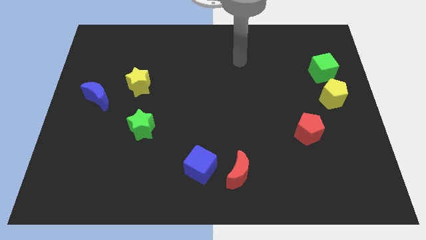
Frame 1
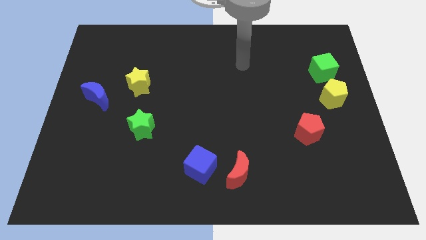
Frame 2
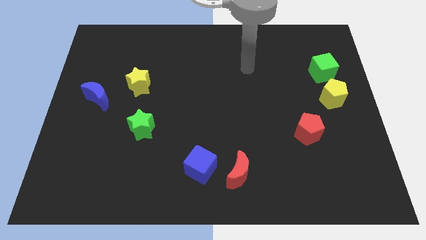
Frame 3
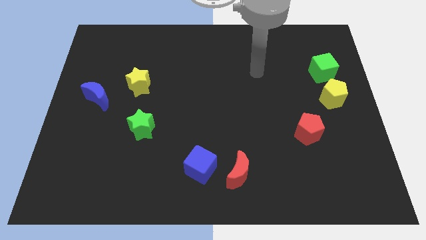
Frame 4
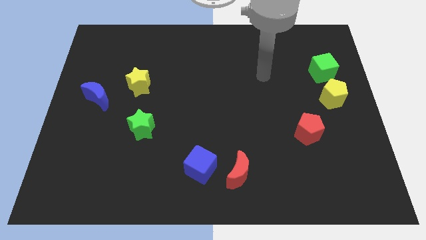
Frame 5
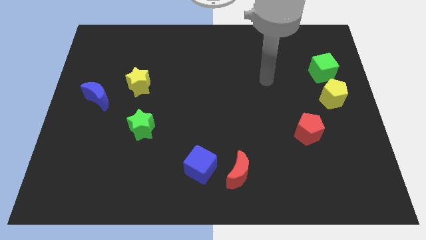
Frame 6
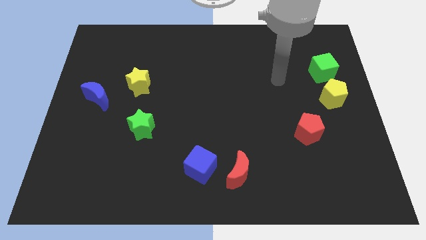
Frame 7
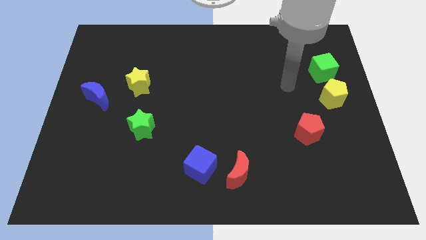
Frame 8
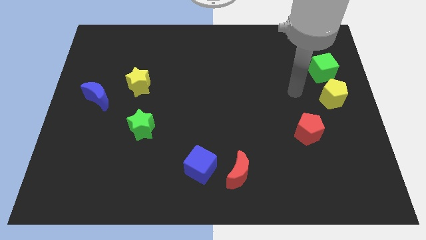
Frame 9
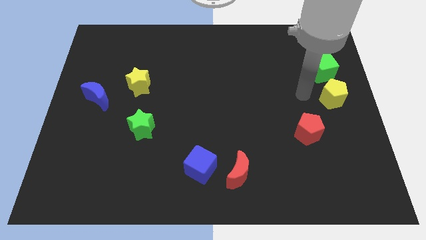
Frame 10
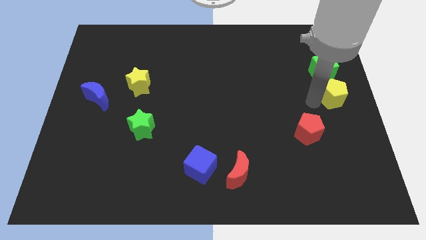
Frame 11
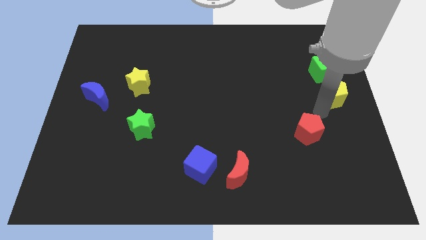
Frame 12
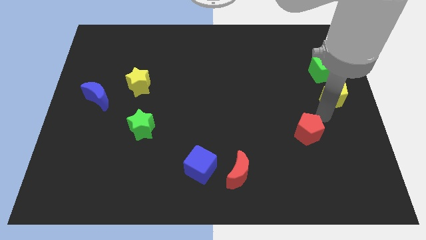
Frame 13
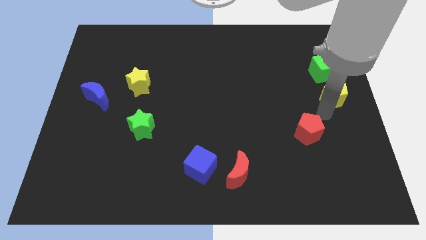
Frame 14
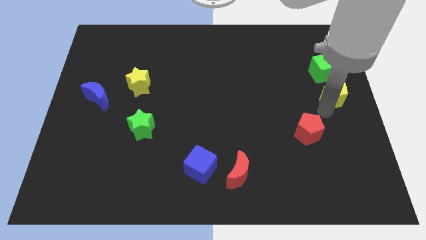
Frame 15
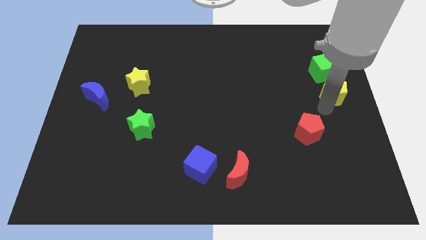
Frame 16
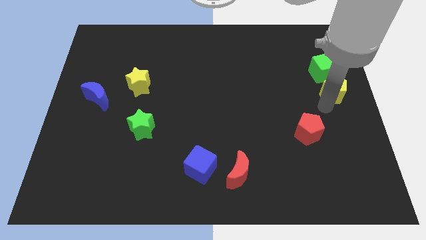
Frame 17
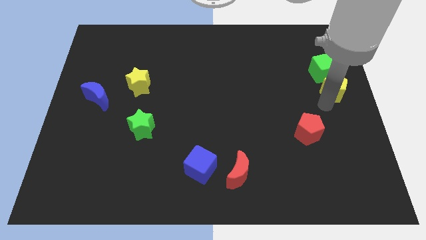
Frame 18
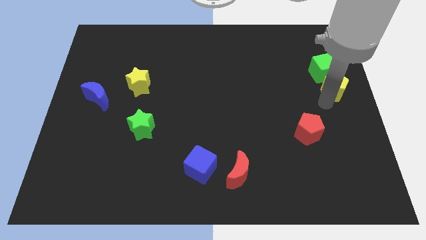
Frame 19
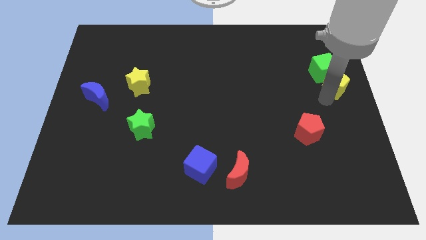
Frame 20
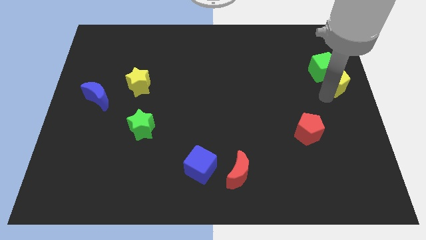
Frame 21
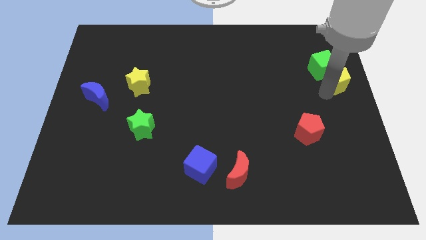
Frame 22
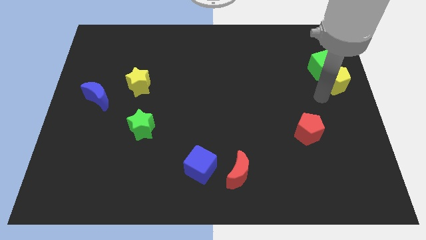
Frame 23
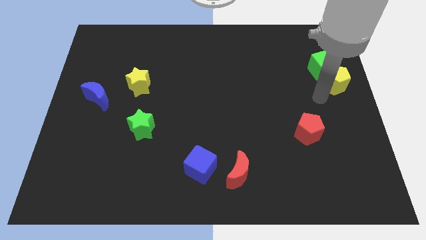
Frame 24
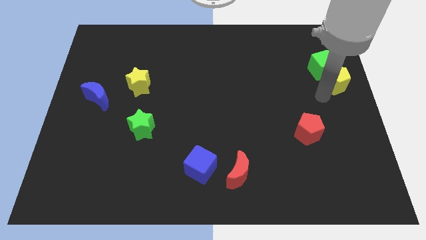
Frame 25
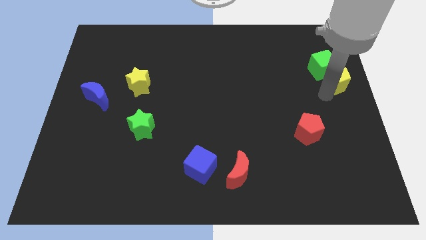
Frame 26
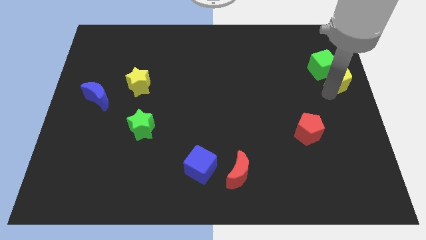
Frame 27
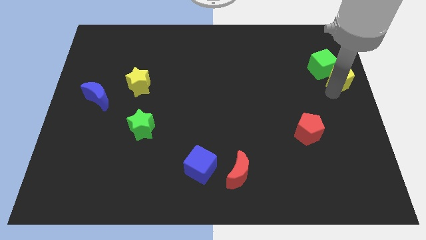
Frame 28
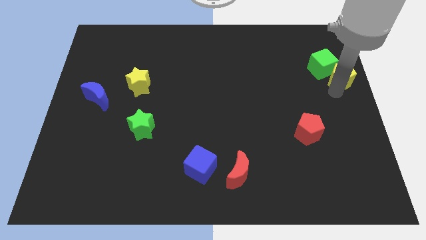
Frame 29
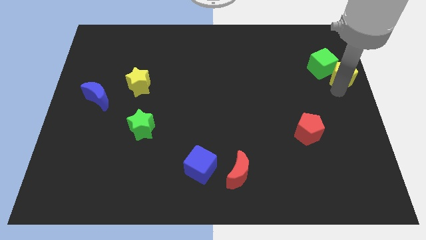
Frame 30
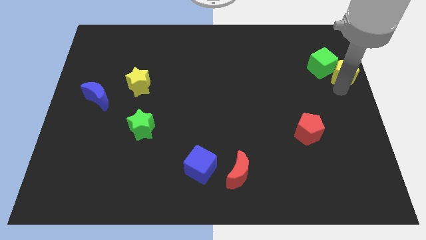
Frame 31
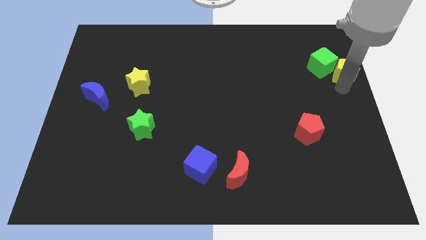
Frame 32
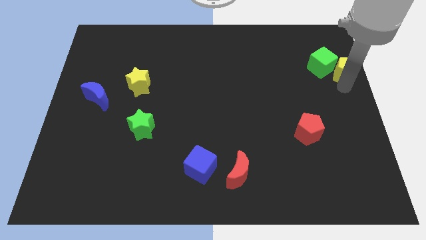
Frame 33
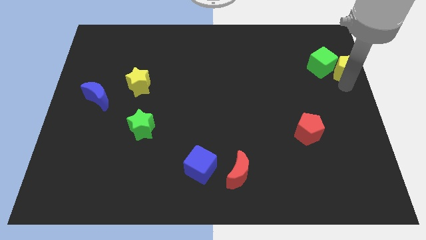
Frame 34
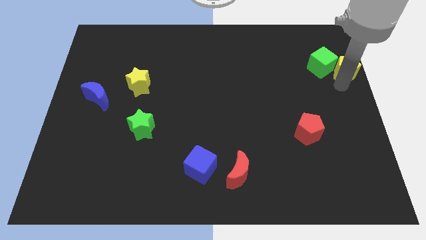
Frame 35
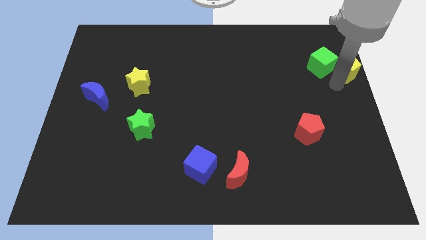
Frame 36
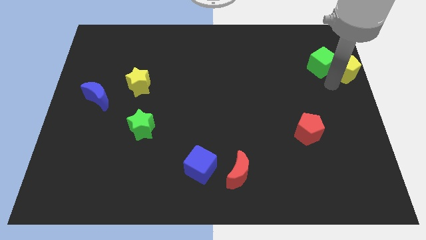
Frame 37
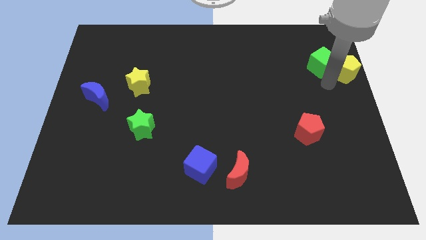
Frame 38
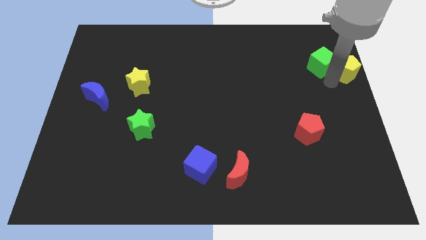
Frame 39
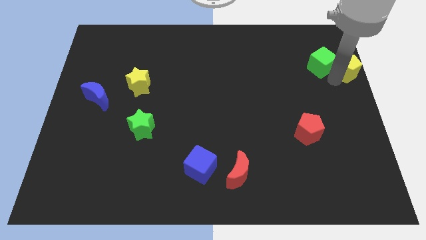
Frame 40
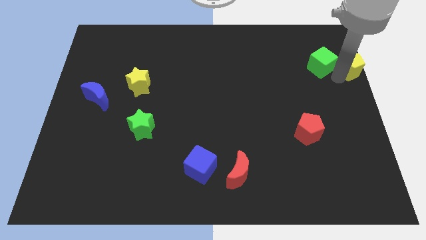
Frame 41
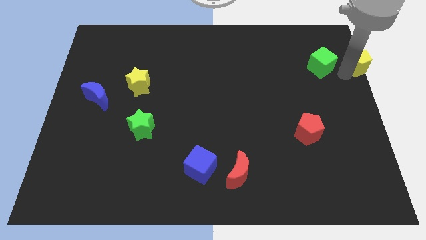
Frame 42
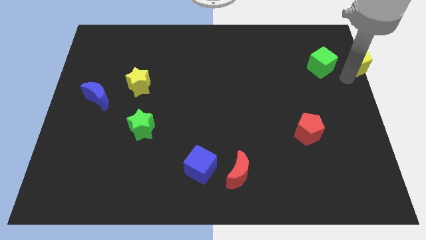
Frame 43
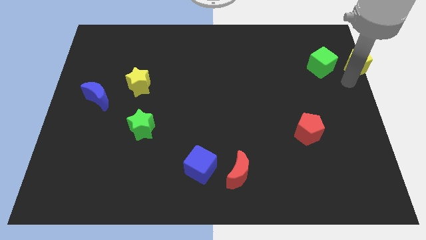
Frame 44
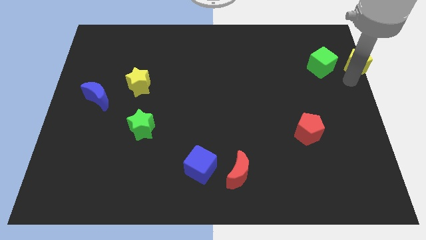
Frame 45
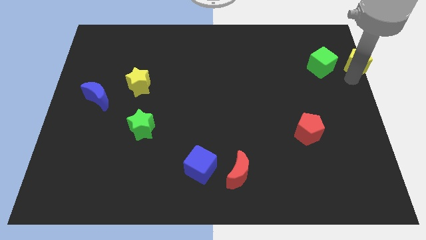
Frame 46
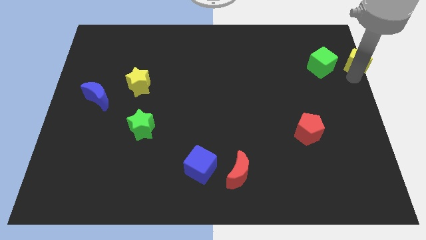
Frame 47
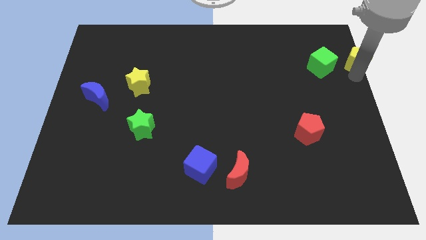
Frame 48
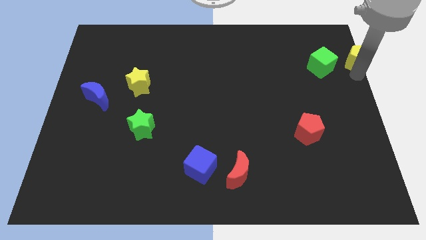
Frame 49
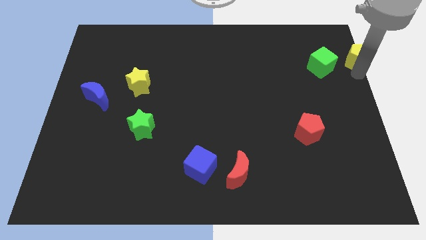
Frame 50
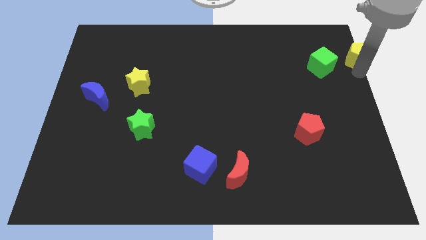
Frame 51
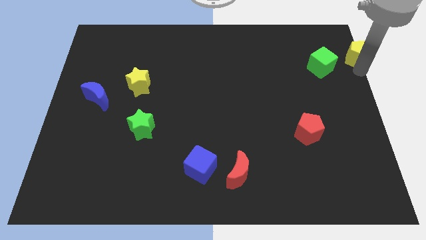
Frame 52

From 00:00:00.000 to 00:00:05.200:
move the yellow pentagon to the top right corner

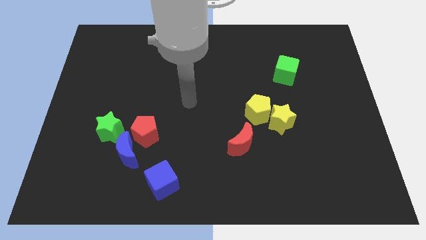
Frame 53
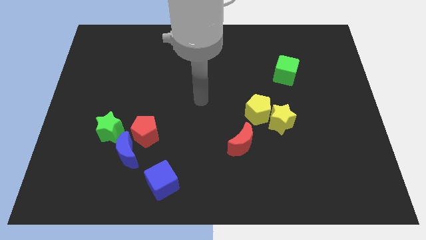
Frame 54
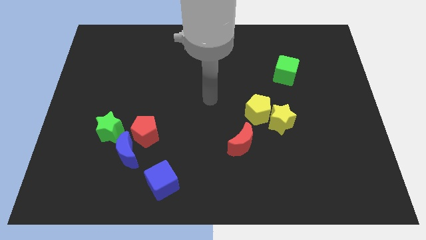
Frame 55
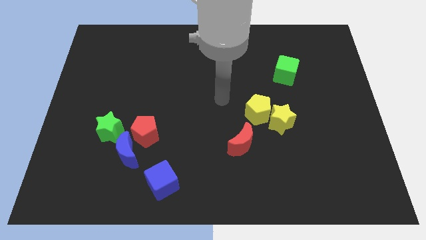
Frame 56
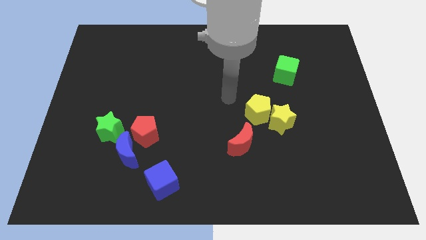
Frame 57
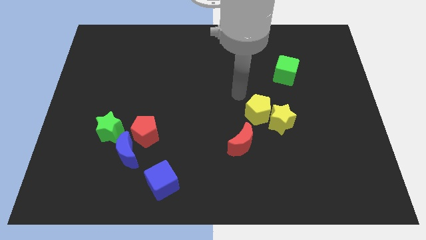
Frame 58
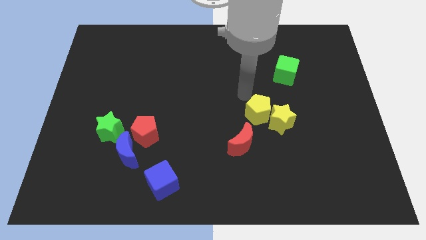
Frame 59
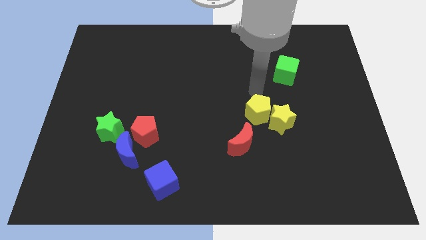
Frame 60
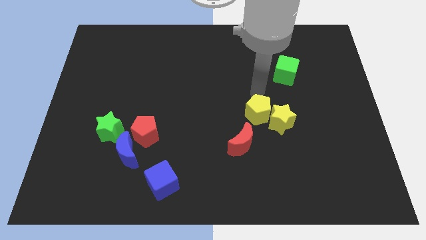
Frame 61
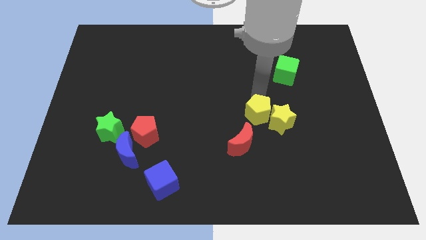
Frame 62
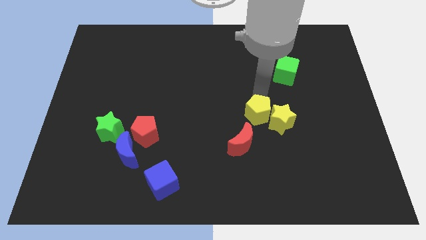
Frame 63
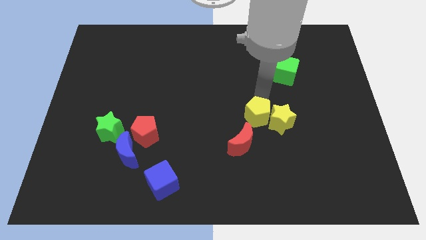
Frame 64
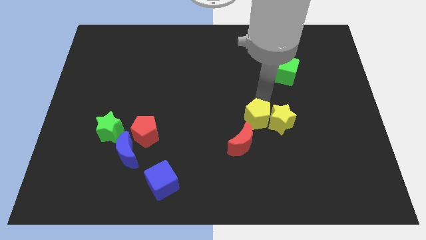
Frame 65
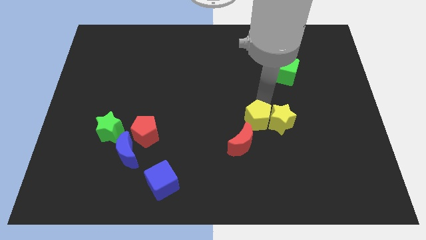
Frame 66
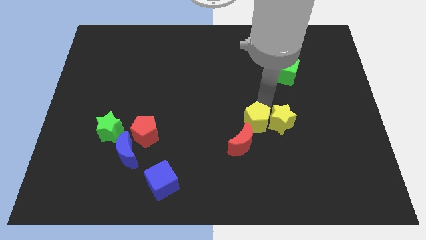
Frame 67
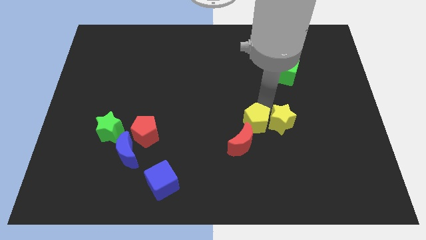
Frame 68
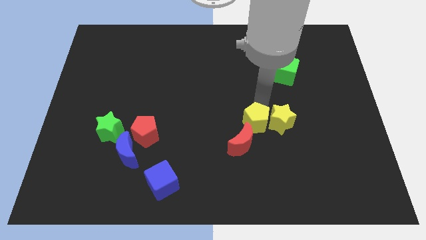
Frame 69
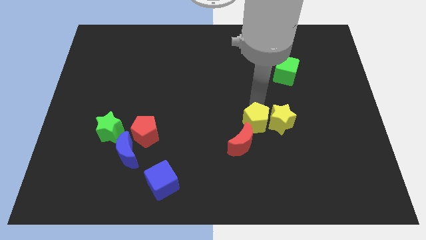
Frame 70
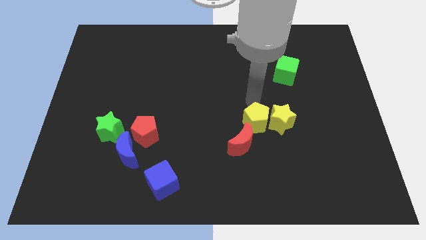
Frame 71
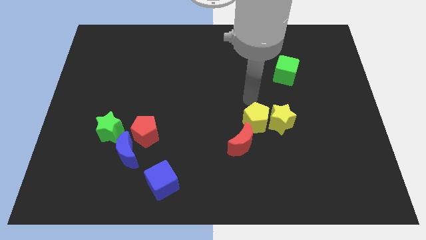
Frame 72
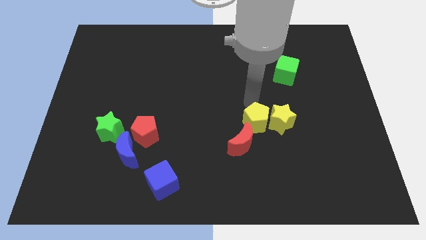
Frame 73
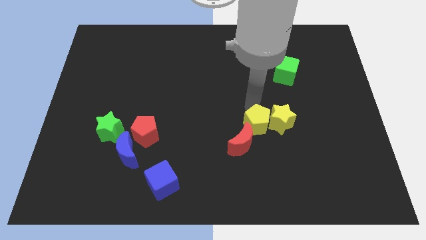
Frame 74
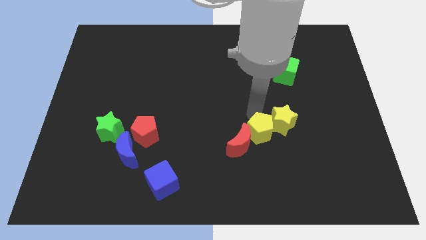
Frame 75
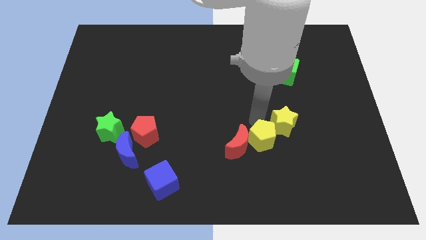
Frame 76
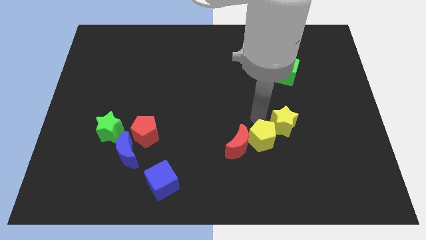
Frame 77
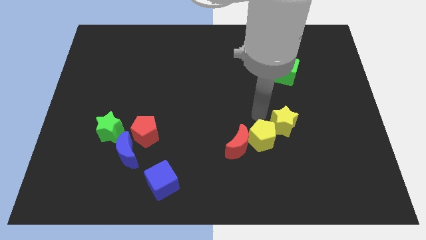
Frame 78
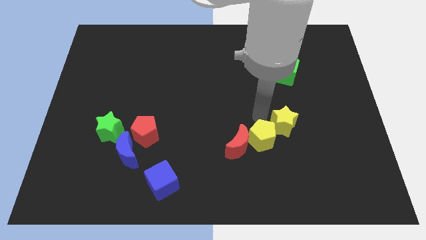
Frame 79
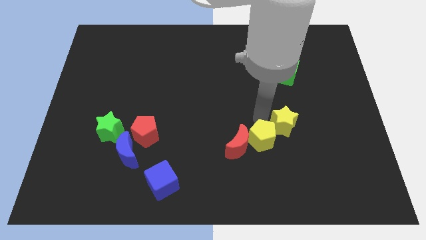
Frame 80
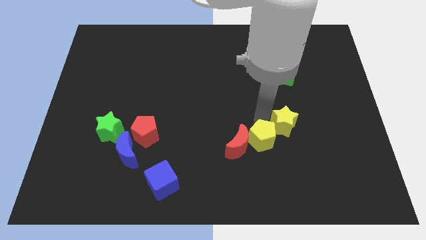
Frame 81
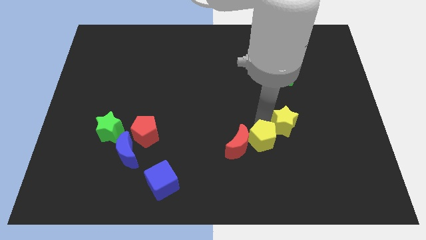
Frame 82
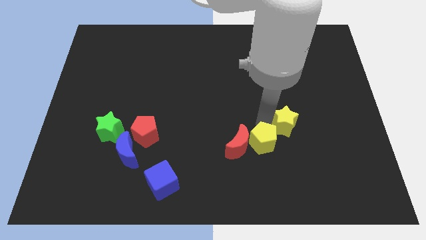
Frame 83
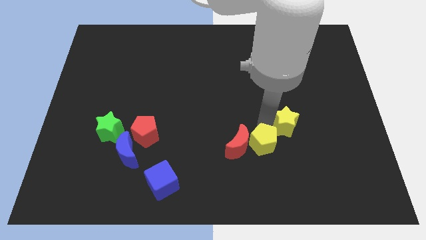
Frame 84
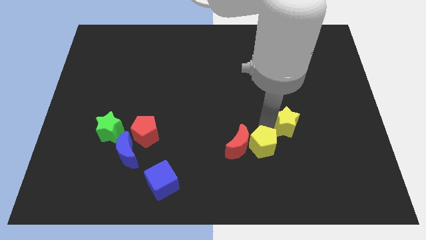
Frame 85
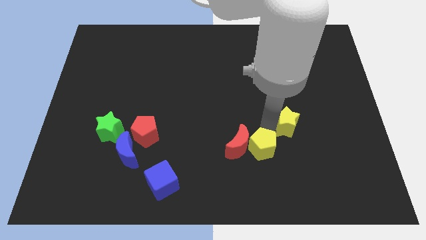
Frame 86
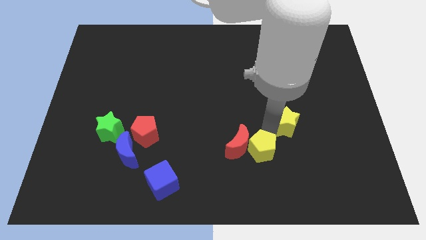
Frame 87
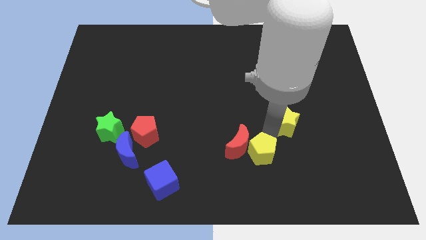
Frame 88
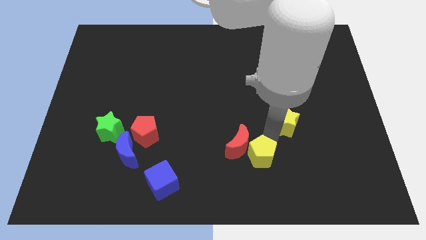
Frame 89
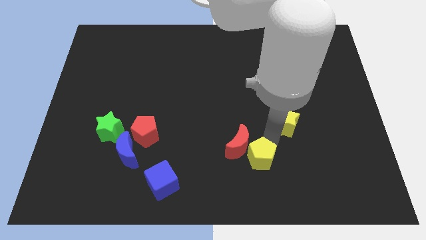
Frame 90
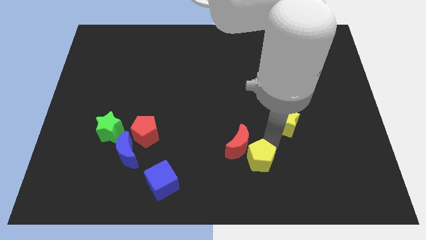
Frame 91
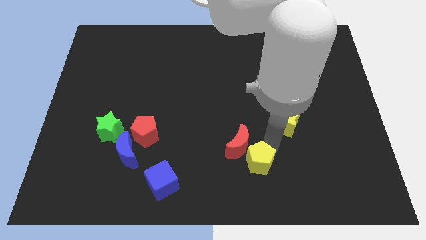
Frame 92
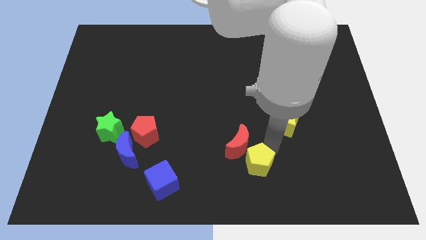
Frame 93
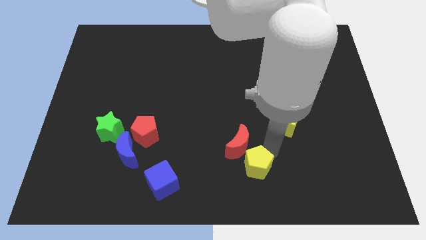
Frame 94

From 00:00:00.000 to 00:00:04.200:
push the yellow pentagon to the bottom side
